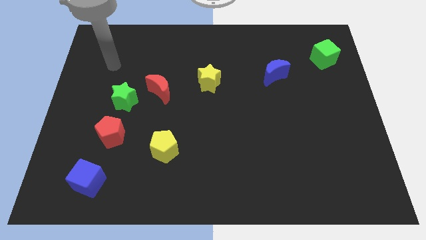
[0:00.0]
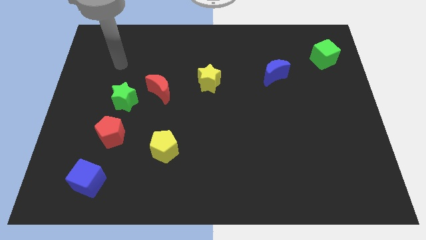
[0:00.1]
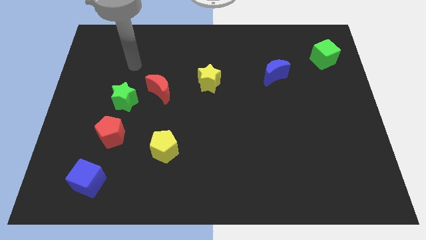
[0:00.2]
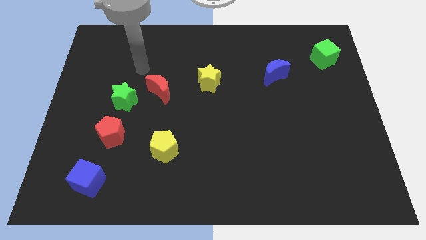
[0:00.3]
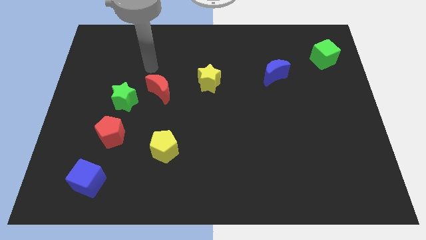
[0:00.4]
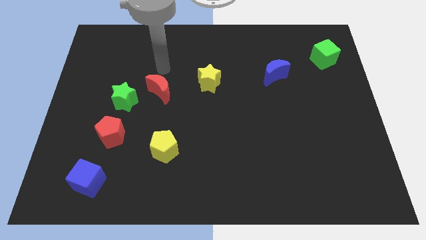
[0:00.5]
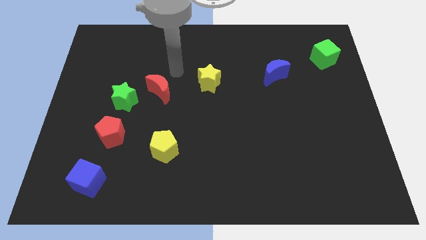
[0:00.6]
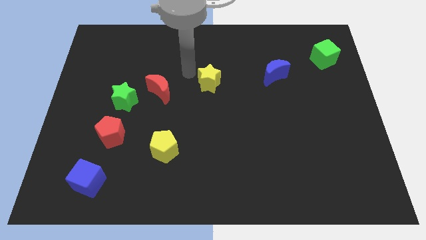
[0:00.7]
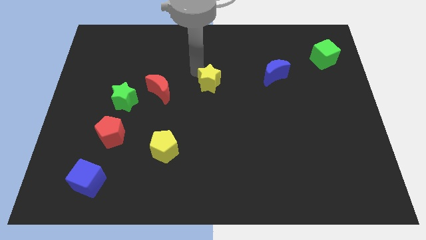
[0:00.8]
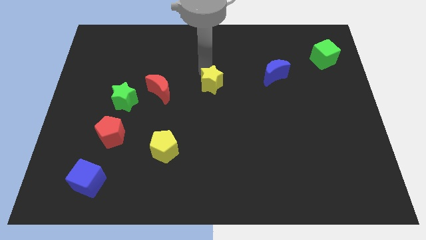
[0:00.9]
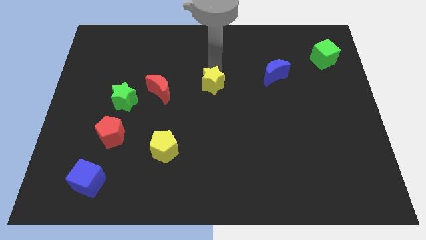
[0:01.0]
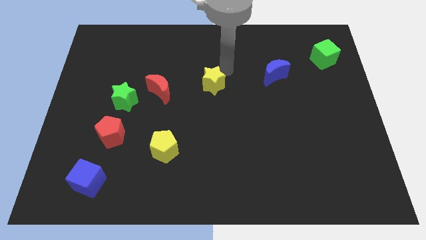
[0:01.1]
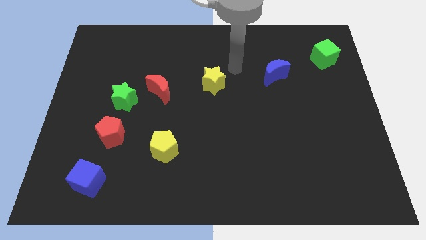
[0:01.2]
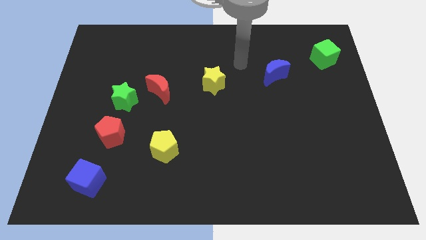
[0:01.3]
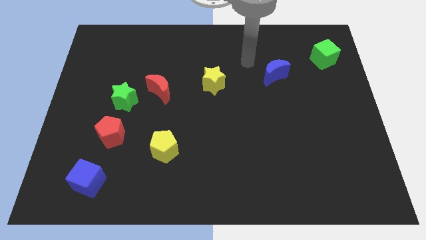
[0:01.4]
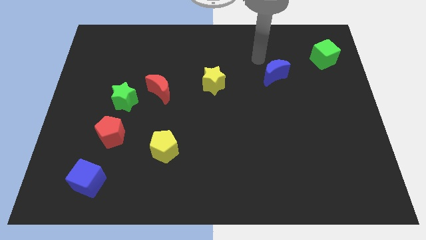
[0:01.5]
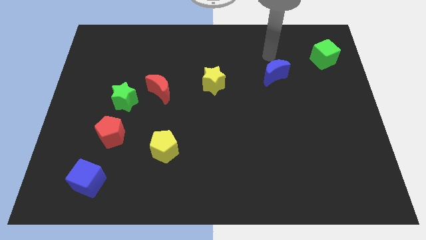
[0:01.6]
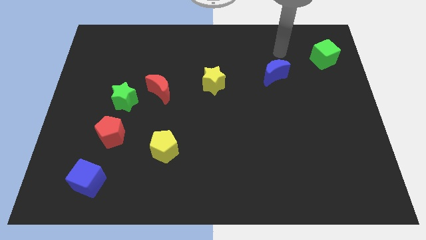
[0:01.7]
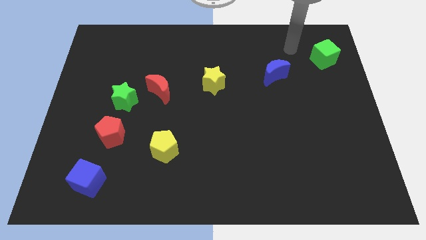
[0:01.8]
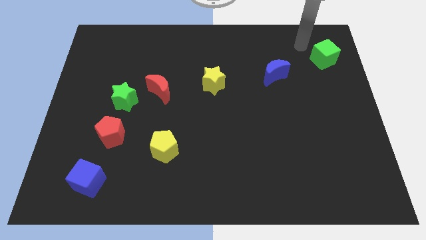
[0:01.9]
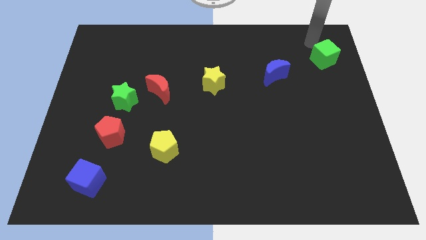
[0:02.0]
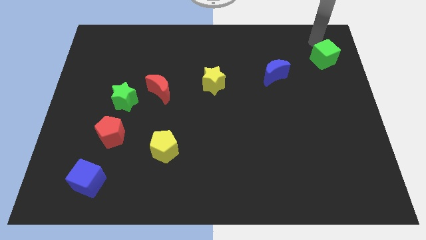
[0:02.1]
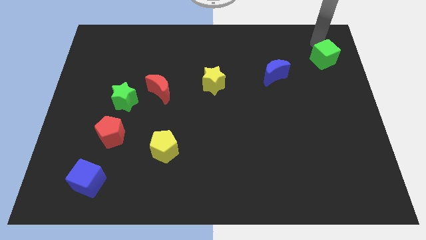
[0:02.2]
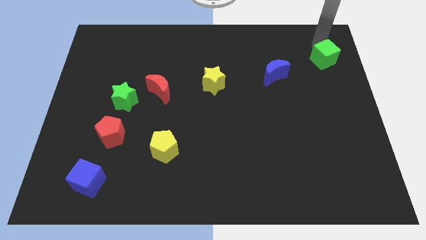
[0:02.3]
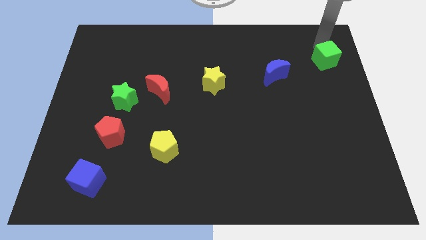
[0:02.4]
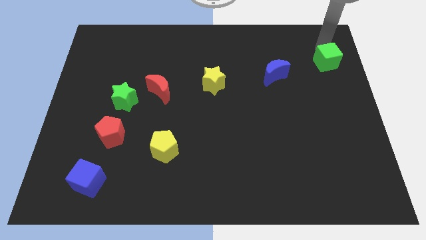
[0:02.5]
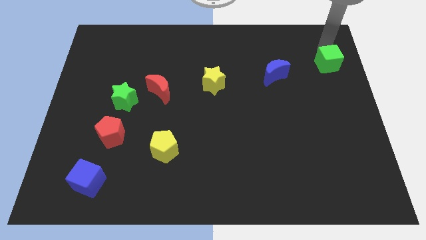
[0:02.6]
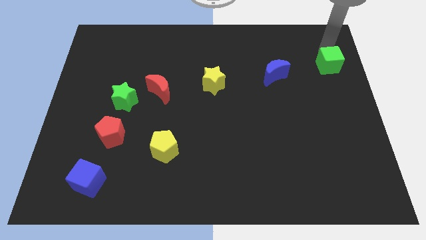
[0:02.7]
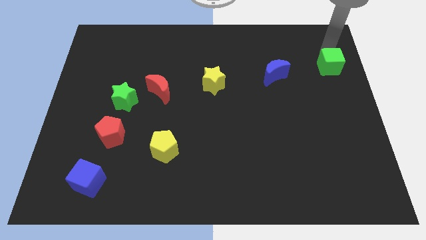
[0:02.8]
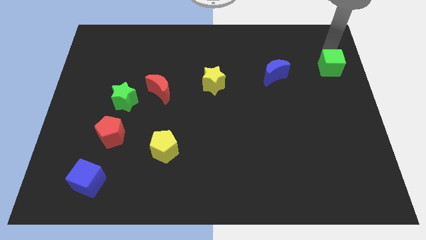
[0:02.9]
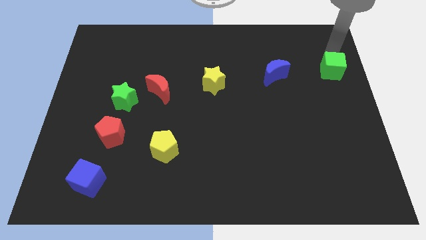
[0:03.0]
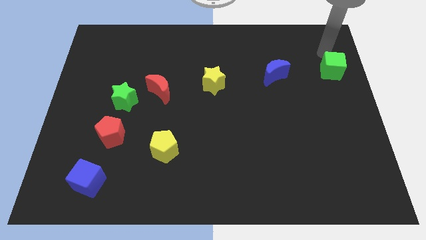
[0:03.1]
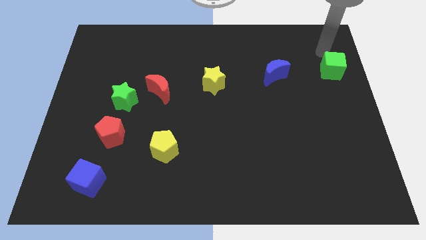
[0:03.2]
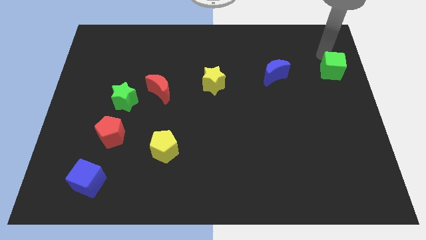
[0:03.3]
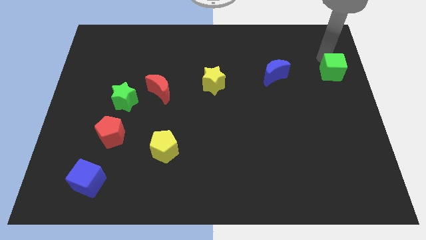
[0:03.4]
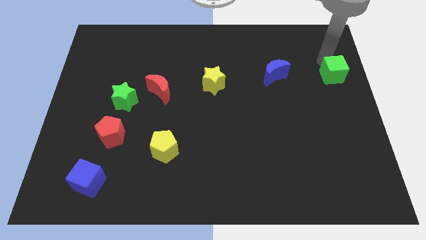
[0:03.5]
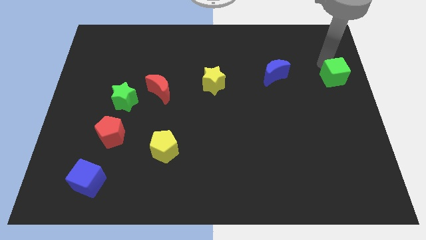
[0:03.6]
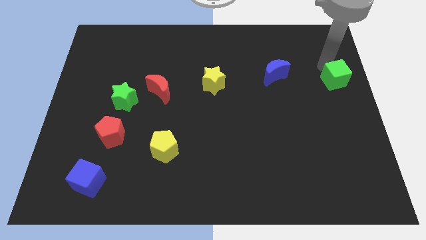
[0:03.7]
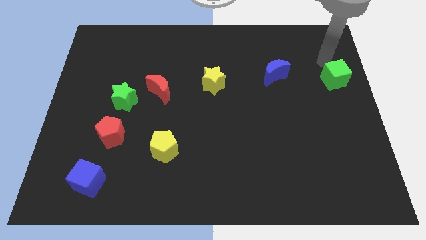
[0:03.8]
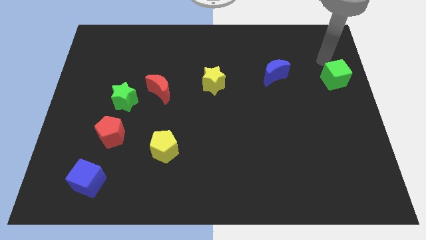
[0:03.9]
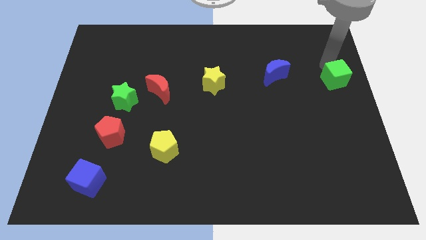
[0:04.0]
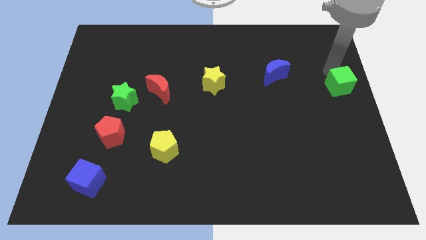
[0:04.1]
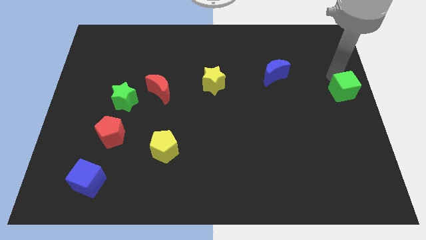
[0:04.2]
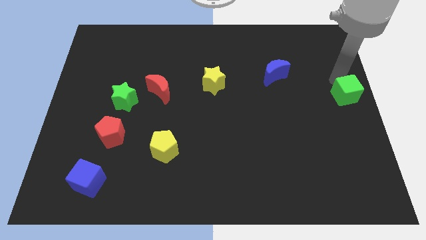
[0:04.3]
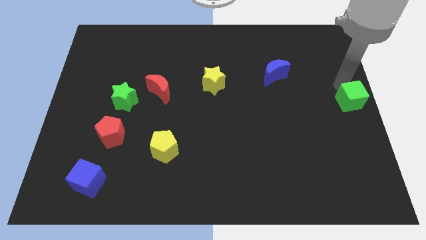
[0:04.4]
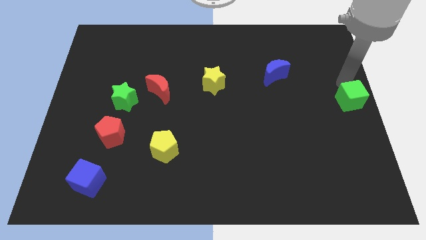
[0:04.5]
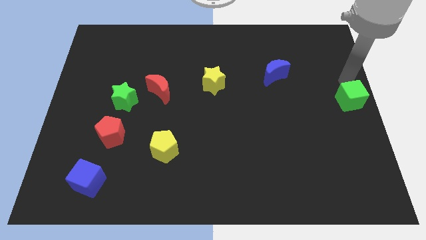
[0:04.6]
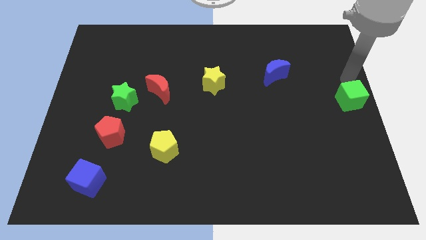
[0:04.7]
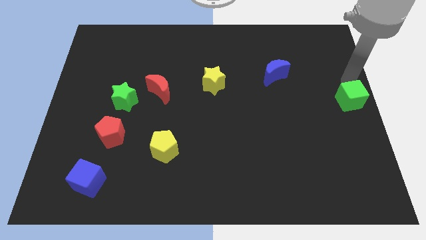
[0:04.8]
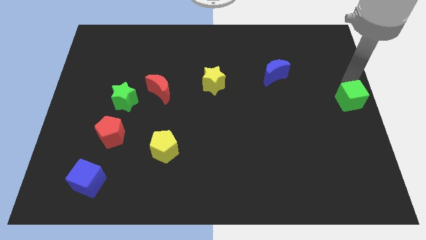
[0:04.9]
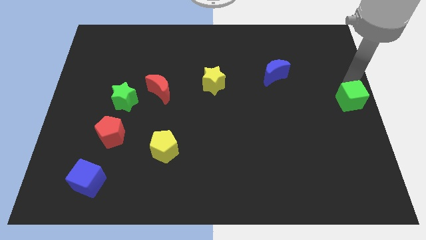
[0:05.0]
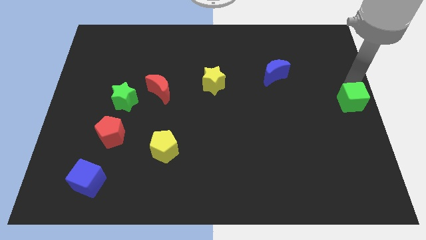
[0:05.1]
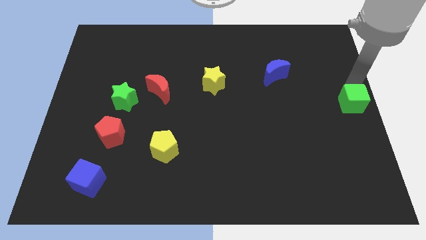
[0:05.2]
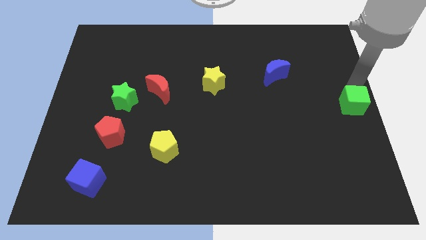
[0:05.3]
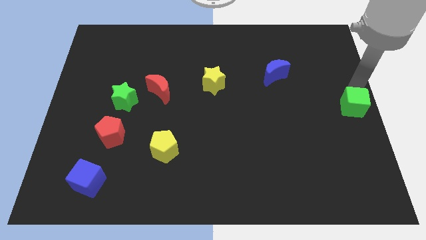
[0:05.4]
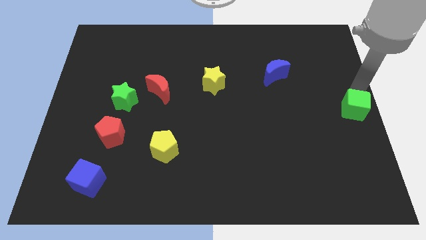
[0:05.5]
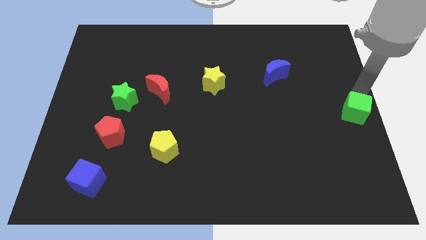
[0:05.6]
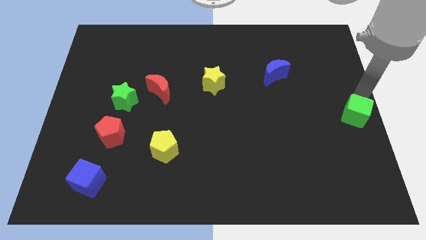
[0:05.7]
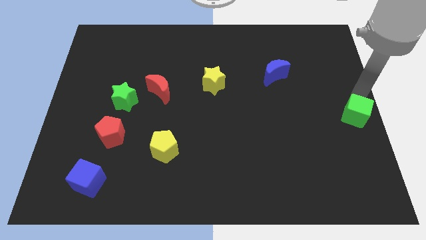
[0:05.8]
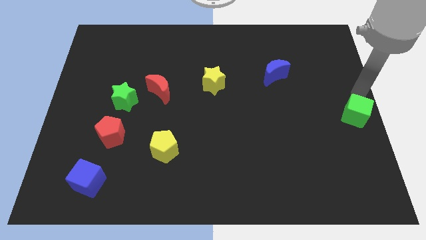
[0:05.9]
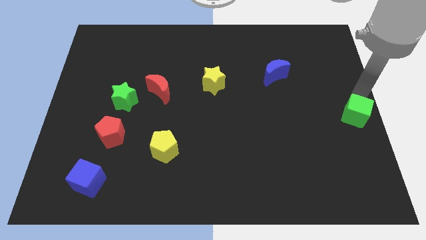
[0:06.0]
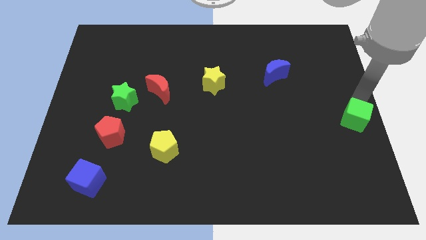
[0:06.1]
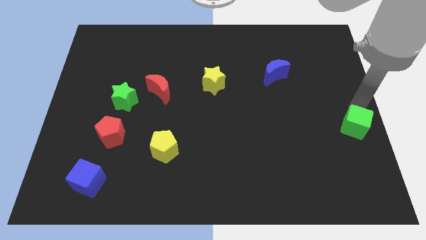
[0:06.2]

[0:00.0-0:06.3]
move the green cube downwards

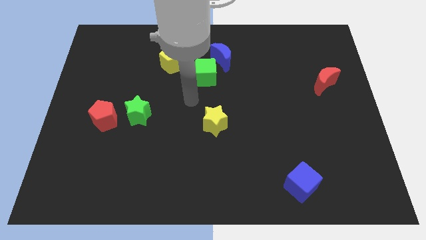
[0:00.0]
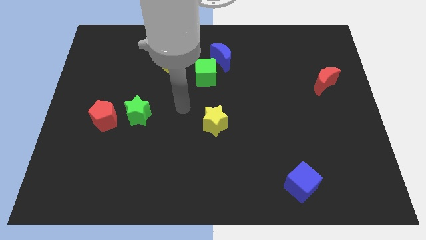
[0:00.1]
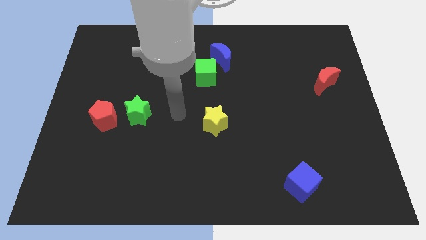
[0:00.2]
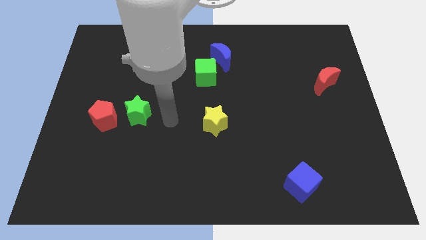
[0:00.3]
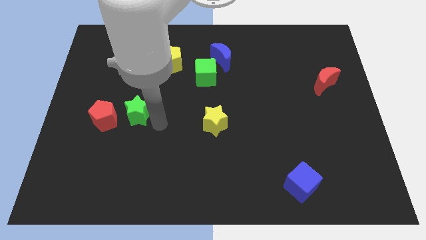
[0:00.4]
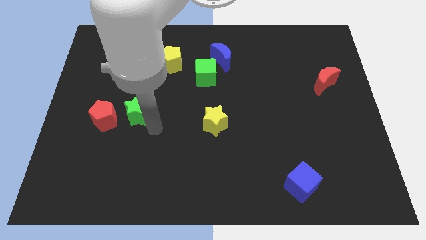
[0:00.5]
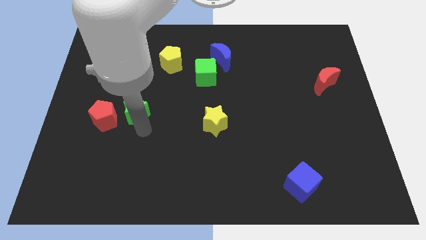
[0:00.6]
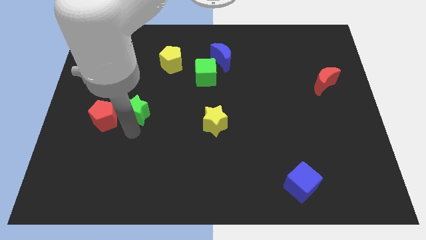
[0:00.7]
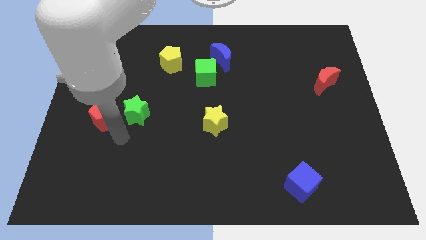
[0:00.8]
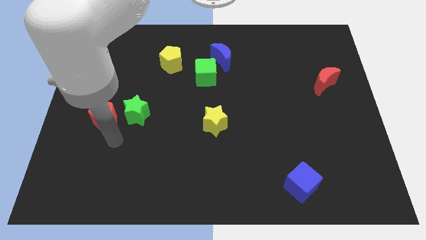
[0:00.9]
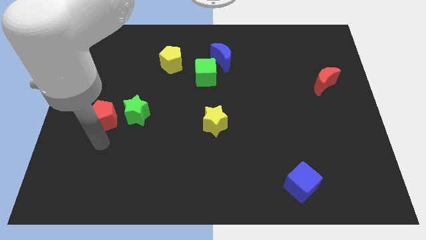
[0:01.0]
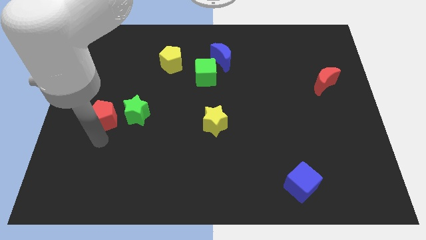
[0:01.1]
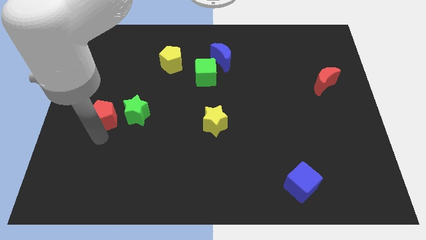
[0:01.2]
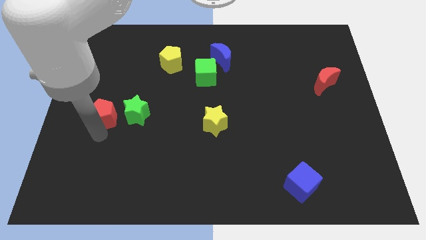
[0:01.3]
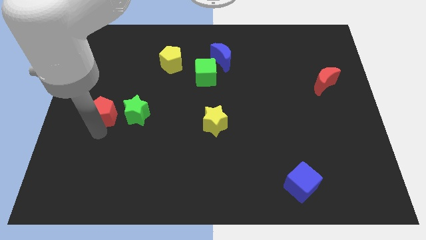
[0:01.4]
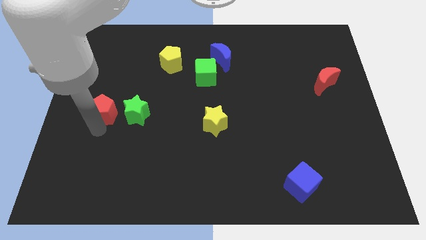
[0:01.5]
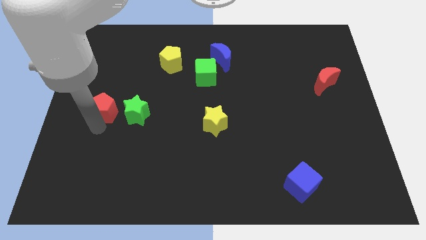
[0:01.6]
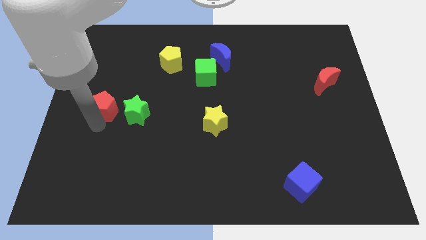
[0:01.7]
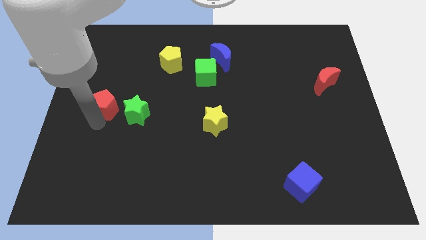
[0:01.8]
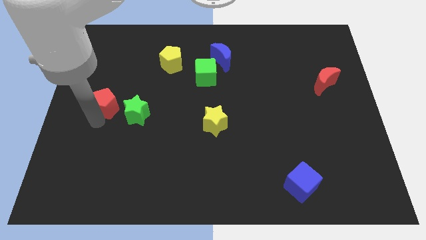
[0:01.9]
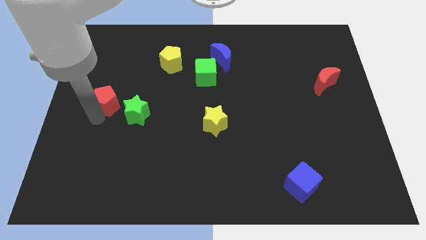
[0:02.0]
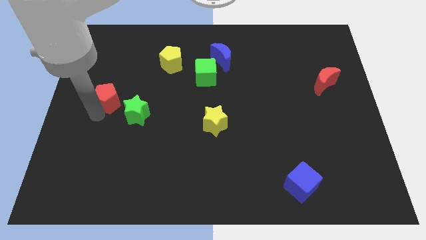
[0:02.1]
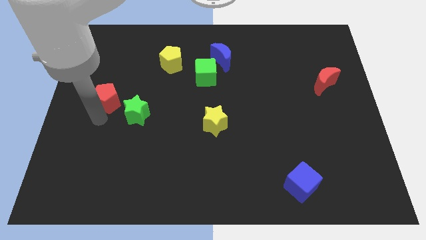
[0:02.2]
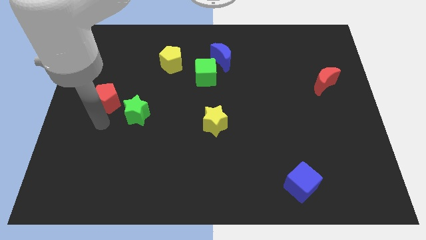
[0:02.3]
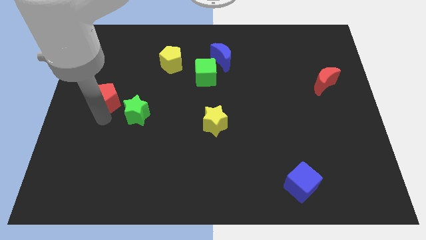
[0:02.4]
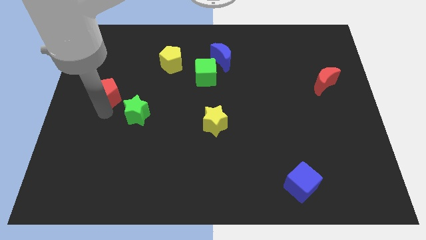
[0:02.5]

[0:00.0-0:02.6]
push the red pentagon upwards a little

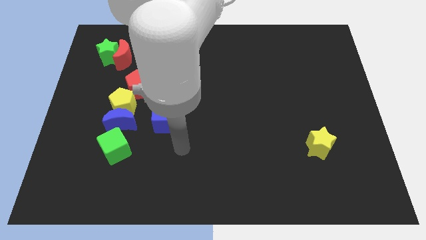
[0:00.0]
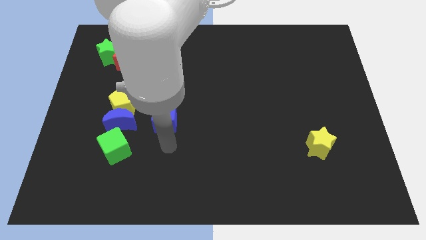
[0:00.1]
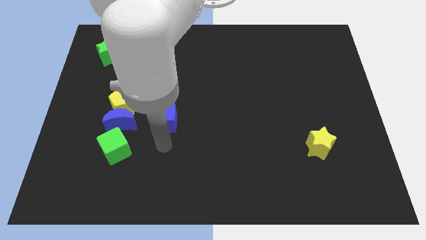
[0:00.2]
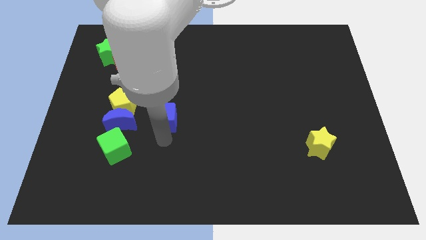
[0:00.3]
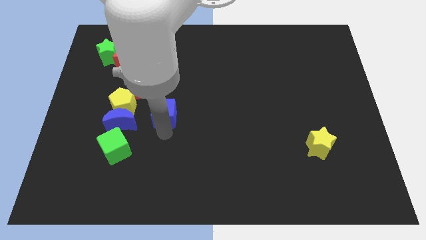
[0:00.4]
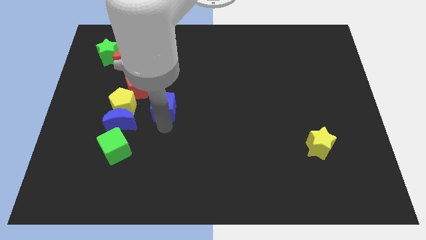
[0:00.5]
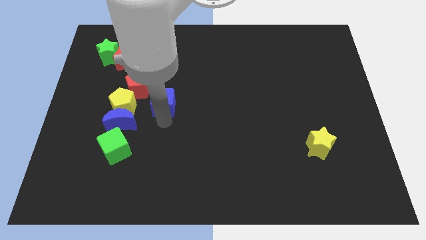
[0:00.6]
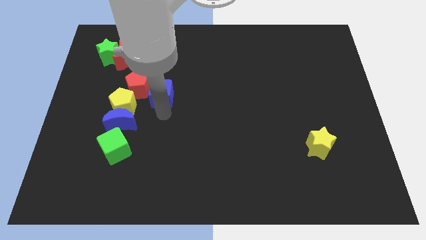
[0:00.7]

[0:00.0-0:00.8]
slightly move the blue cube upwards
